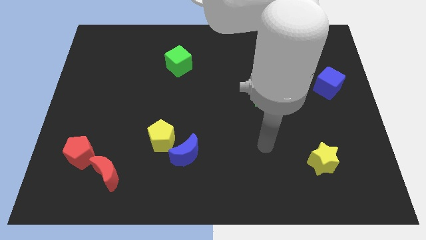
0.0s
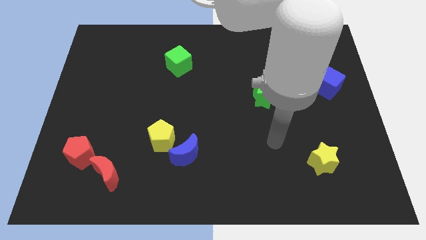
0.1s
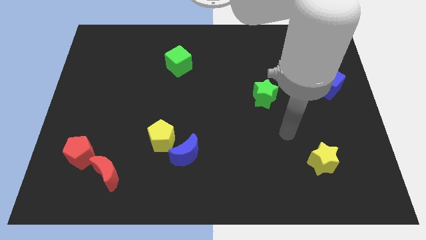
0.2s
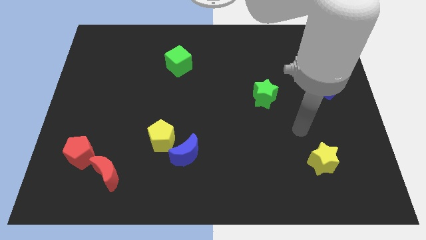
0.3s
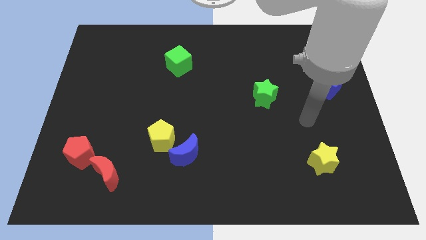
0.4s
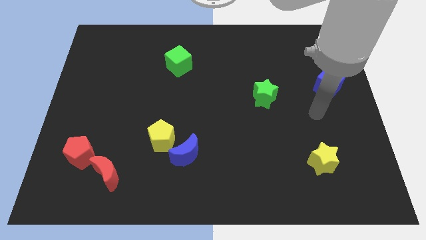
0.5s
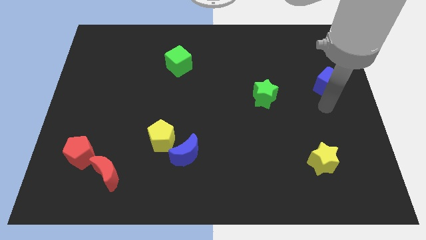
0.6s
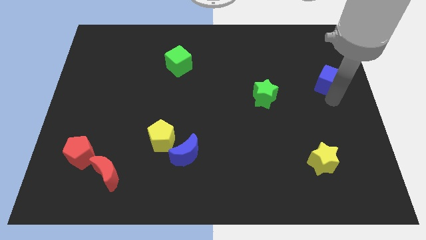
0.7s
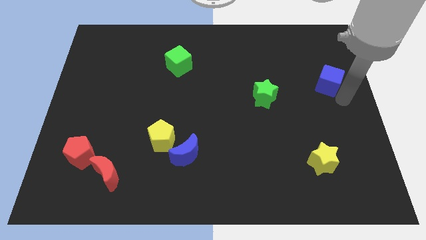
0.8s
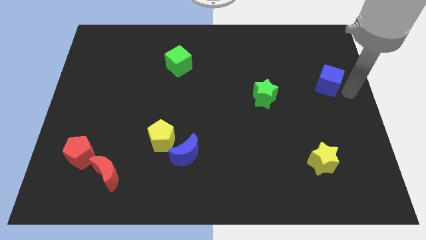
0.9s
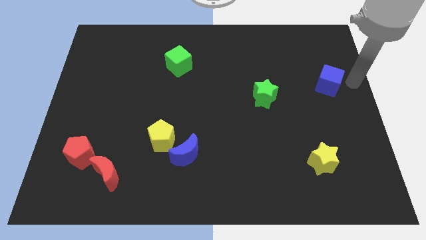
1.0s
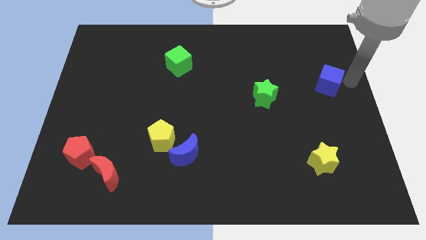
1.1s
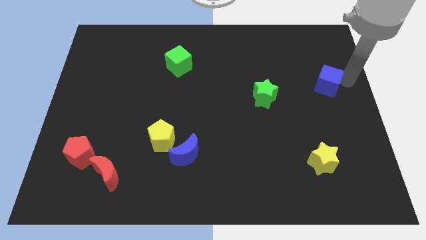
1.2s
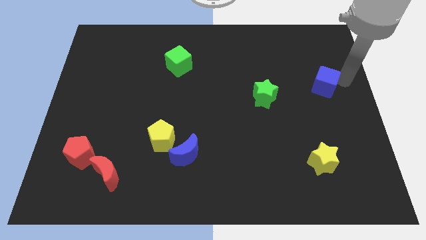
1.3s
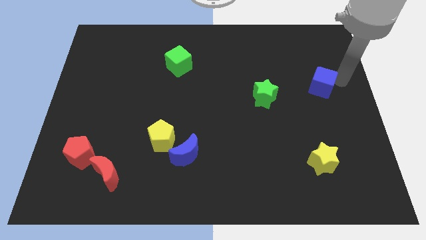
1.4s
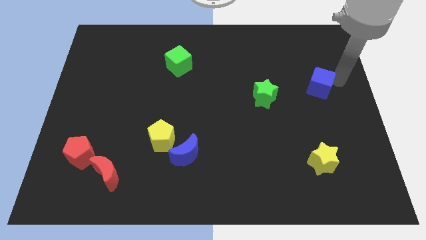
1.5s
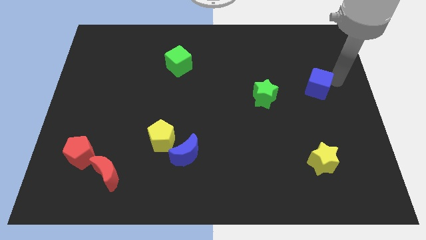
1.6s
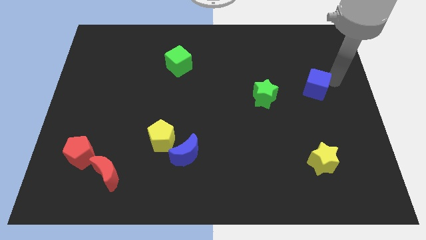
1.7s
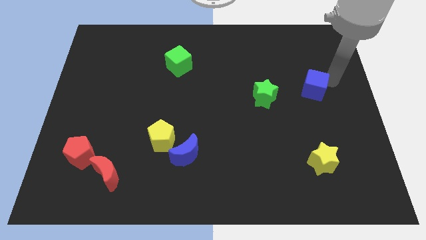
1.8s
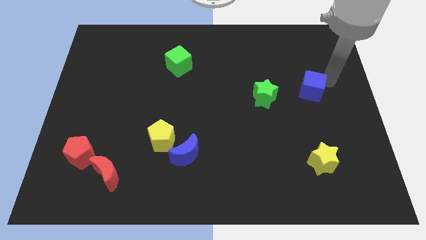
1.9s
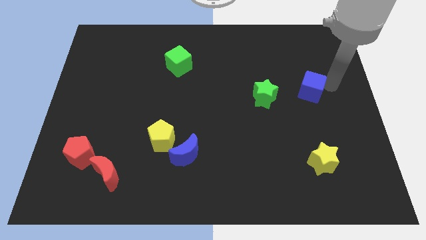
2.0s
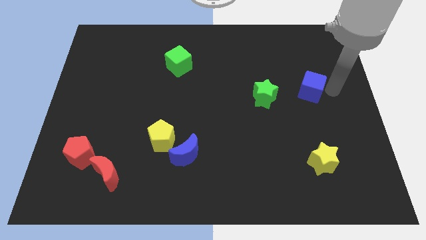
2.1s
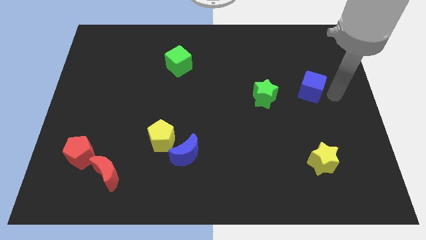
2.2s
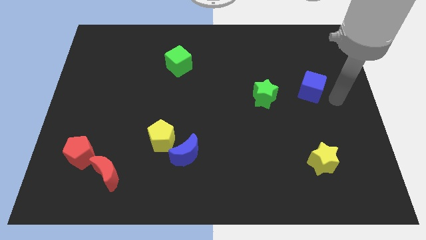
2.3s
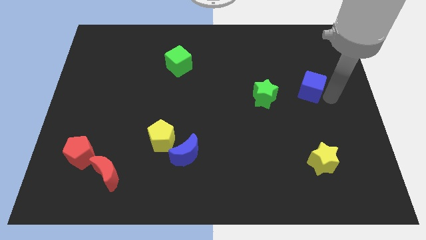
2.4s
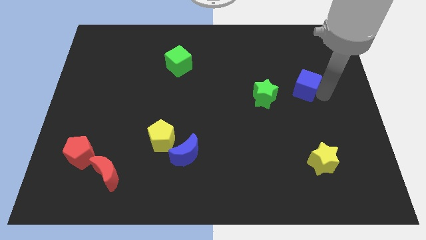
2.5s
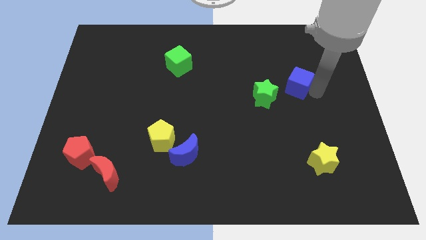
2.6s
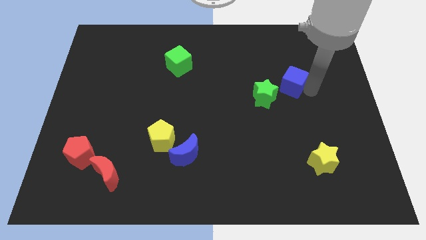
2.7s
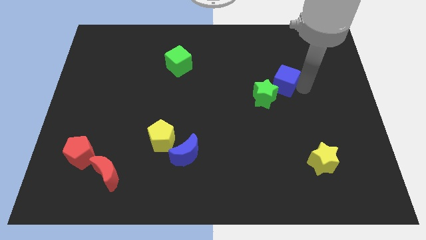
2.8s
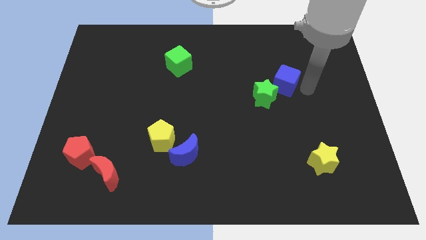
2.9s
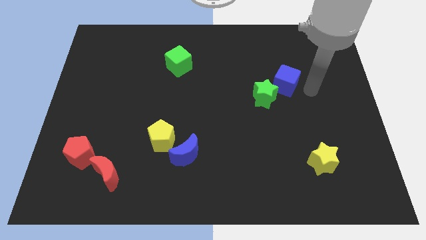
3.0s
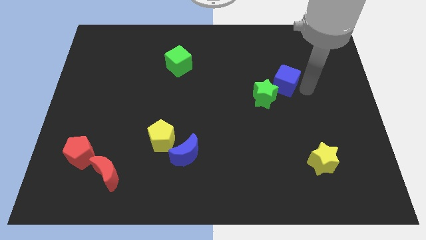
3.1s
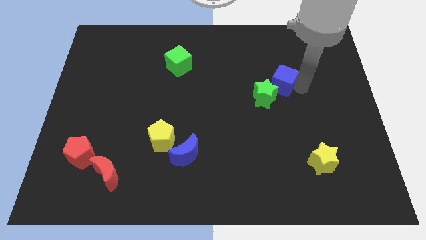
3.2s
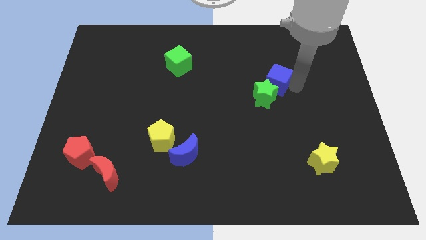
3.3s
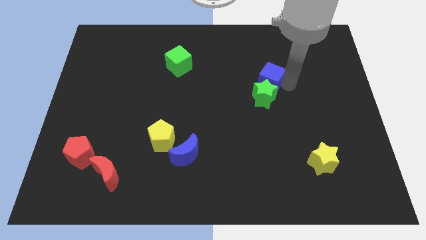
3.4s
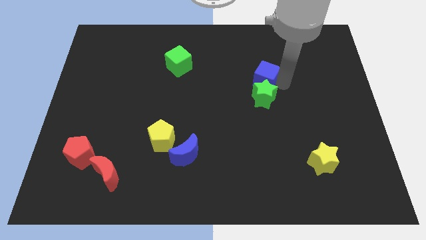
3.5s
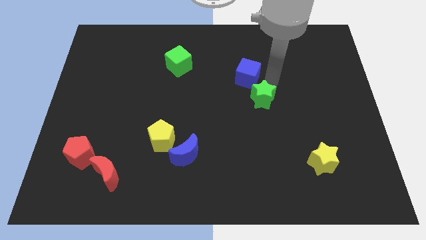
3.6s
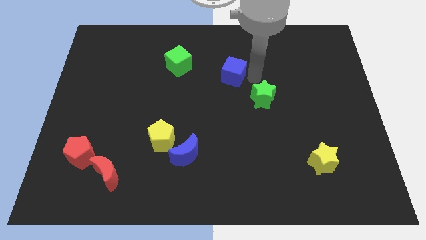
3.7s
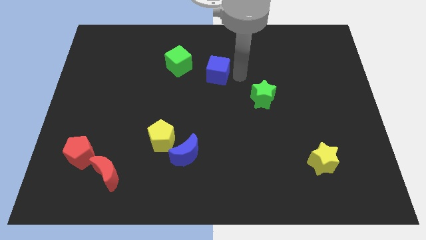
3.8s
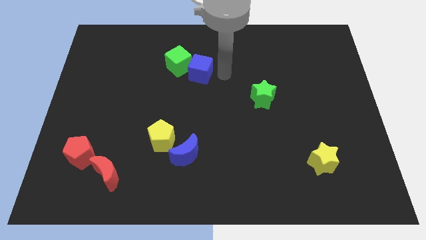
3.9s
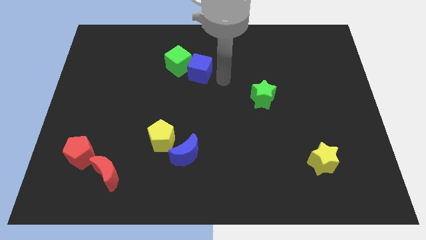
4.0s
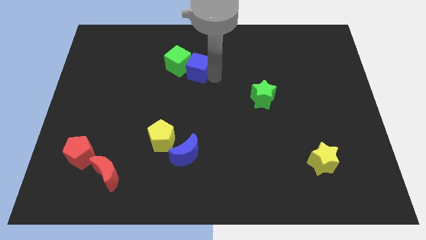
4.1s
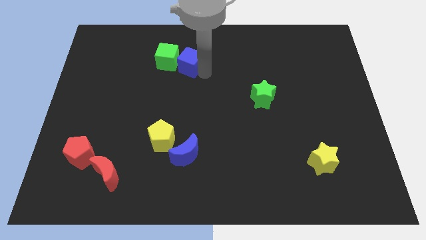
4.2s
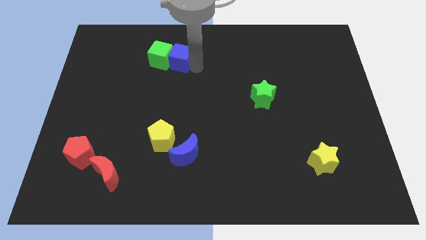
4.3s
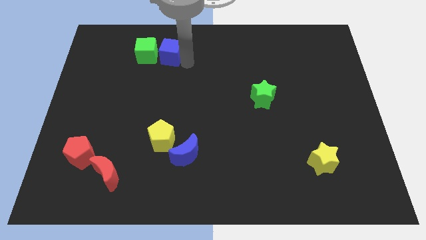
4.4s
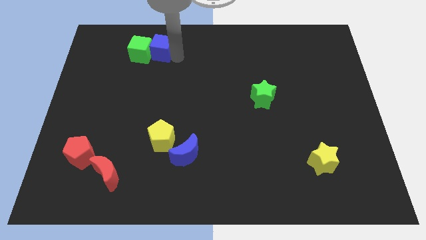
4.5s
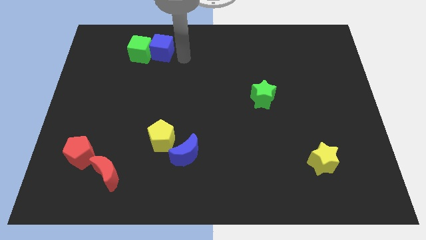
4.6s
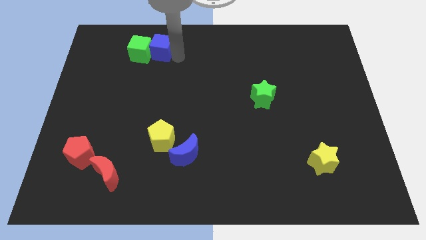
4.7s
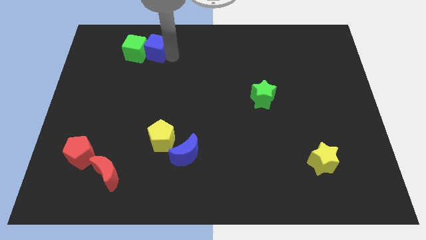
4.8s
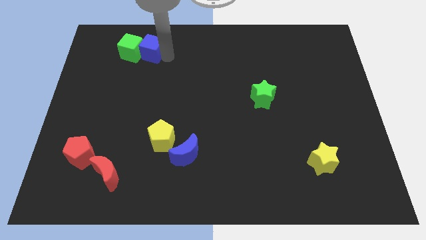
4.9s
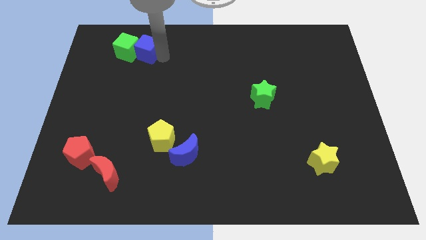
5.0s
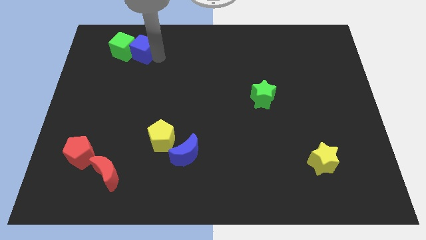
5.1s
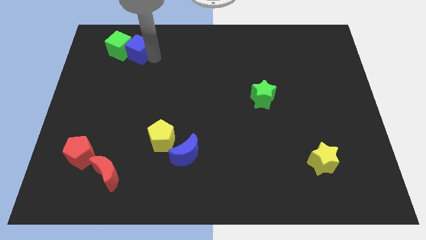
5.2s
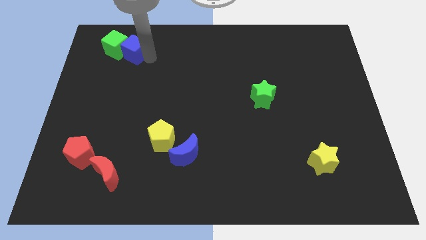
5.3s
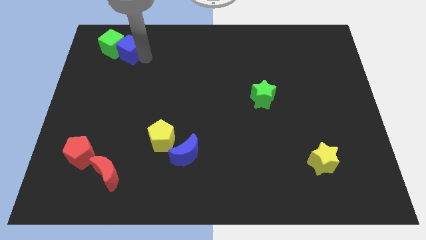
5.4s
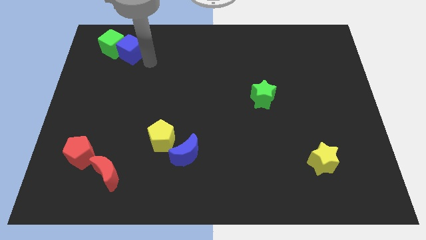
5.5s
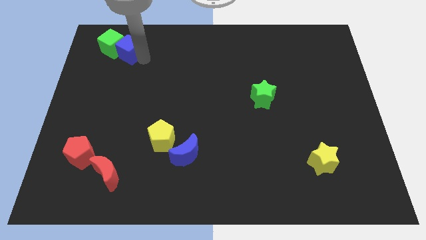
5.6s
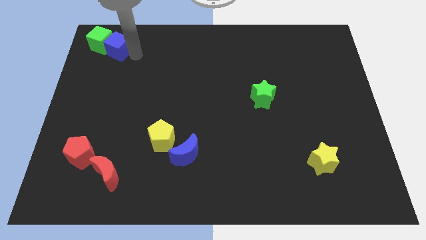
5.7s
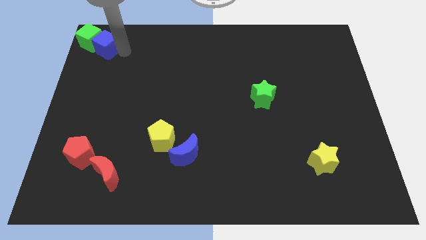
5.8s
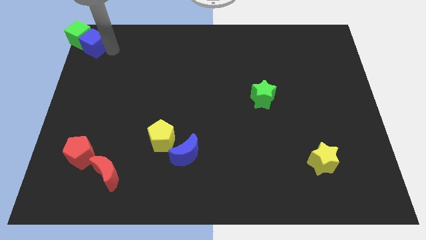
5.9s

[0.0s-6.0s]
put the blue cube to the top left corner
